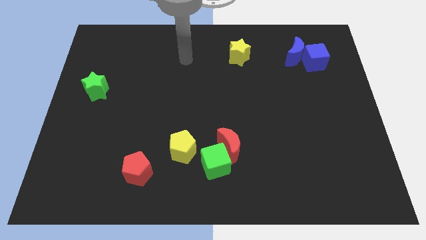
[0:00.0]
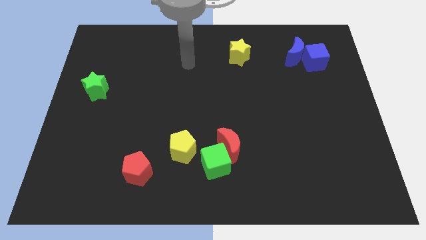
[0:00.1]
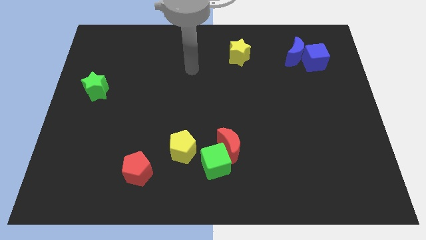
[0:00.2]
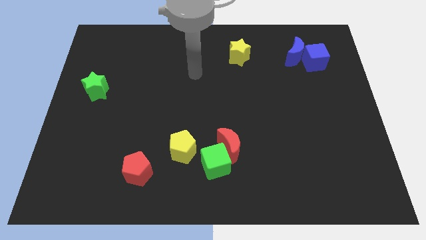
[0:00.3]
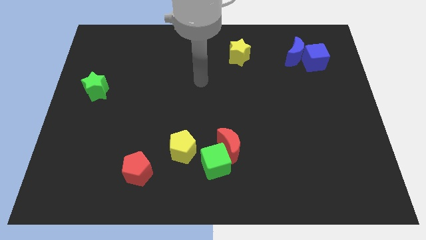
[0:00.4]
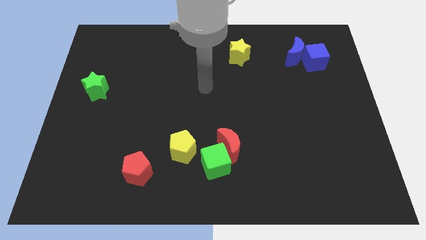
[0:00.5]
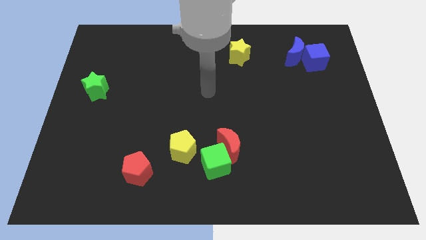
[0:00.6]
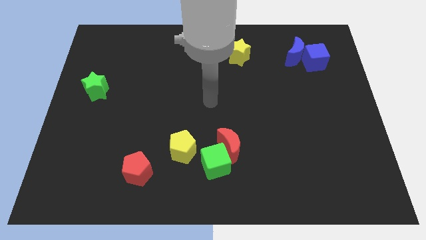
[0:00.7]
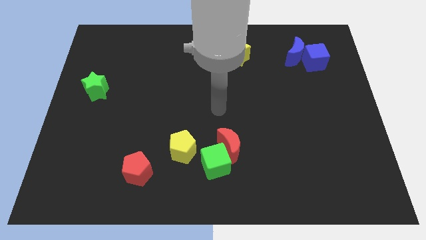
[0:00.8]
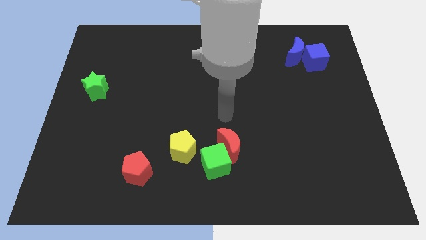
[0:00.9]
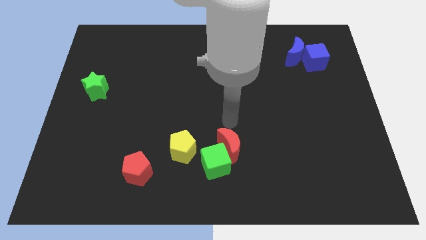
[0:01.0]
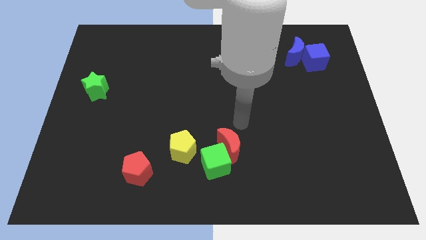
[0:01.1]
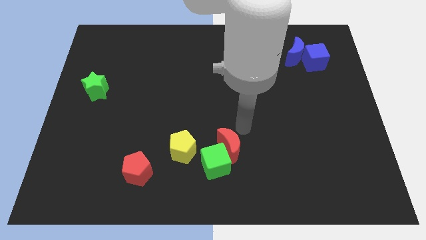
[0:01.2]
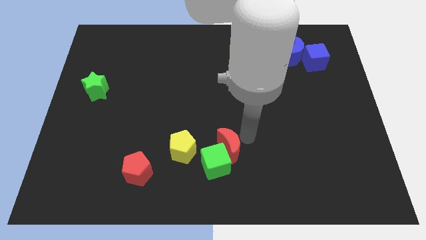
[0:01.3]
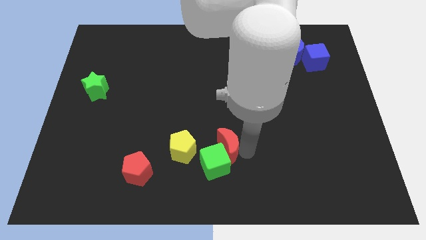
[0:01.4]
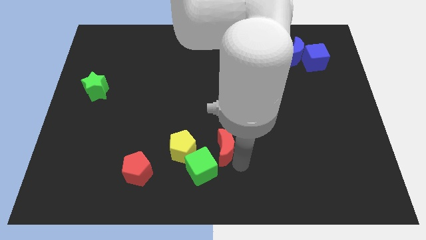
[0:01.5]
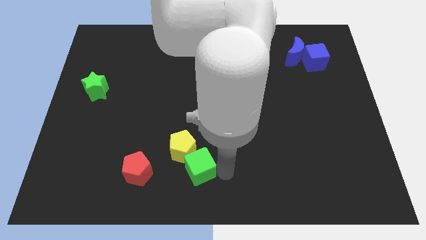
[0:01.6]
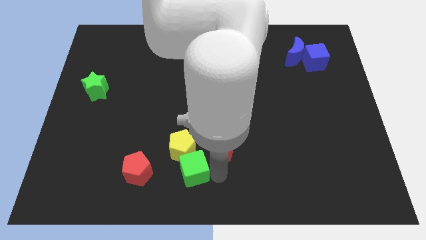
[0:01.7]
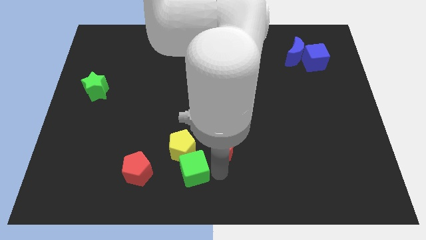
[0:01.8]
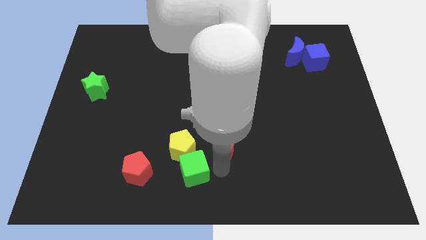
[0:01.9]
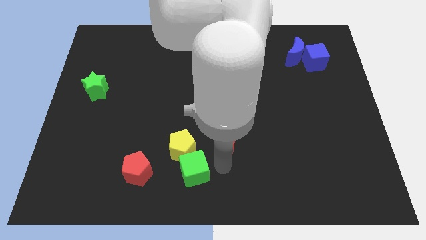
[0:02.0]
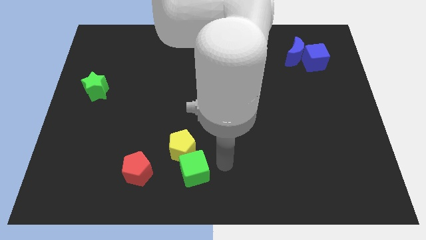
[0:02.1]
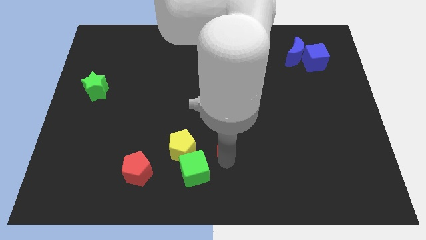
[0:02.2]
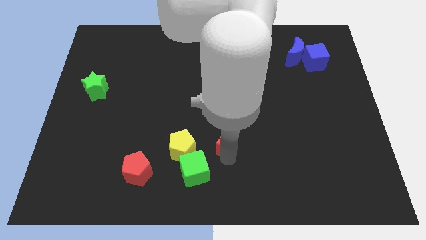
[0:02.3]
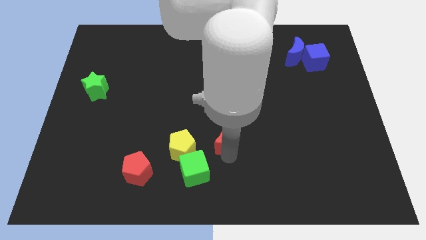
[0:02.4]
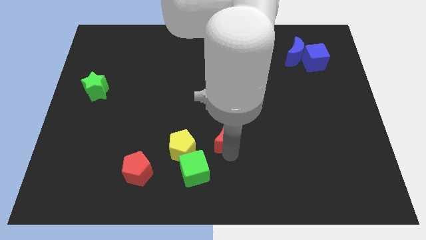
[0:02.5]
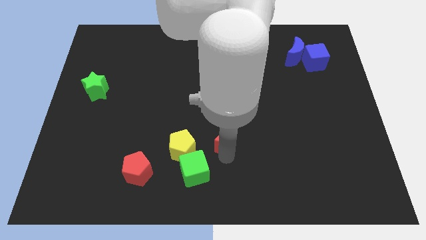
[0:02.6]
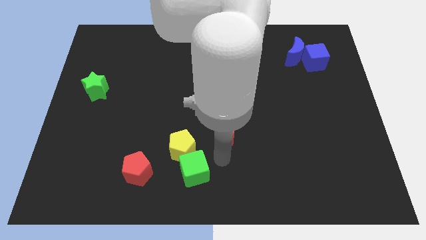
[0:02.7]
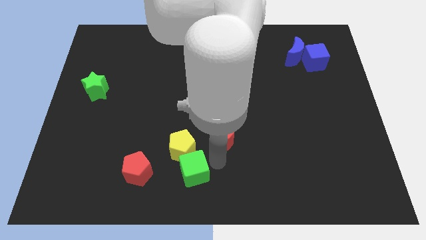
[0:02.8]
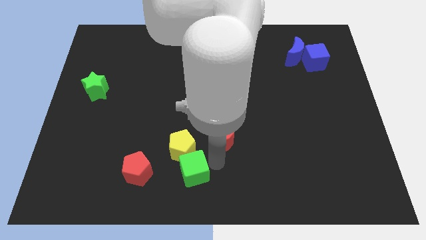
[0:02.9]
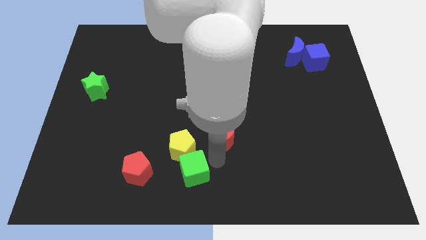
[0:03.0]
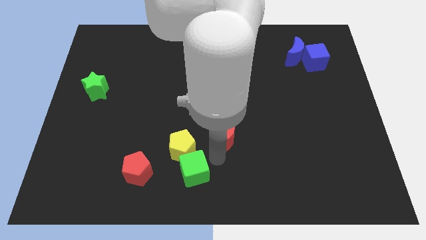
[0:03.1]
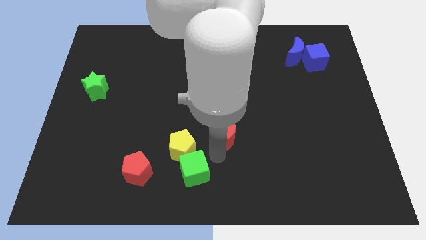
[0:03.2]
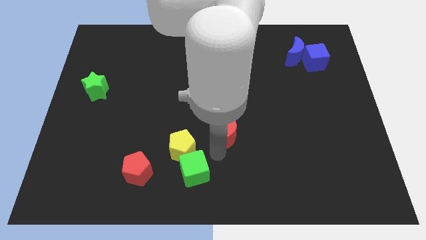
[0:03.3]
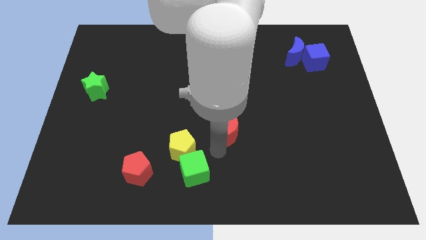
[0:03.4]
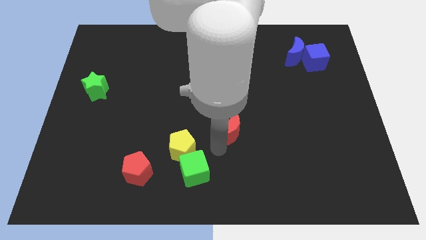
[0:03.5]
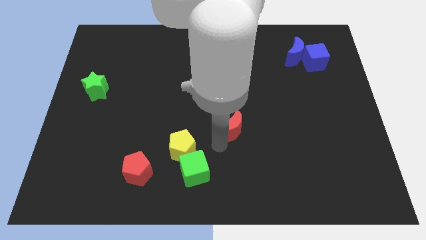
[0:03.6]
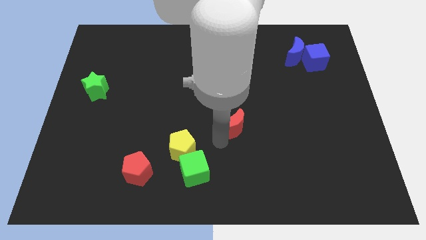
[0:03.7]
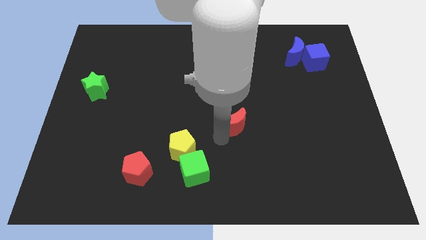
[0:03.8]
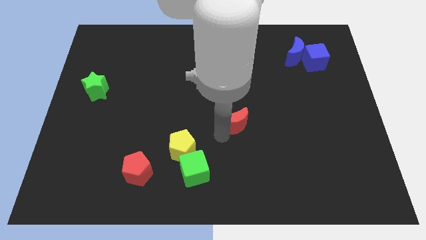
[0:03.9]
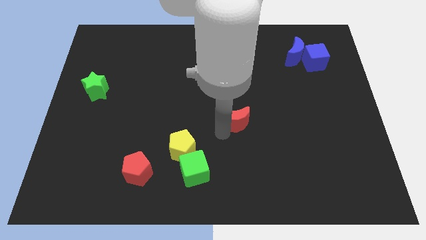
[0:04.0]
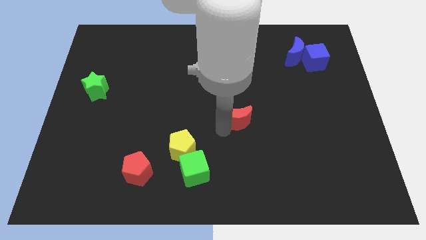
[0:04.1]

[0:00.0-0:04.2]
slightly slide the red moon upwards

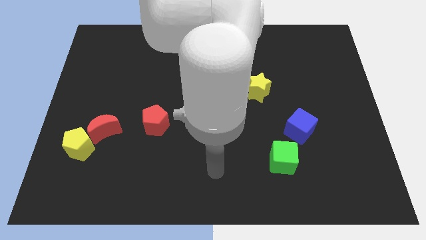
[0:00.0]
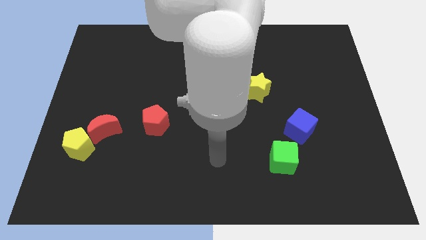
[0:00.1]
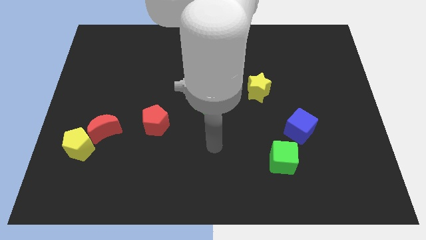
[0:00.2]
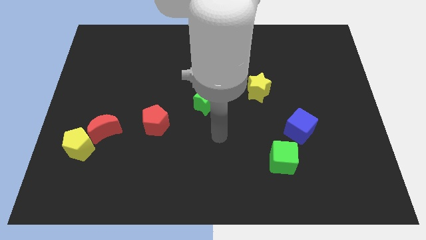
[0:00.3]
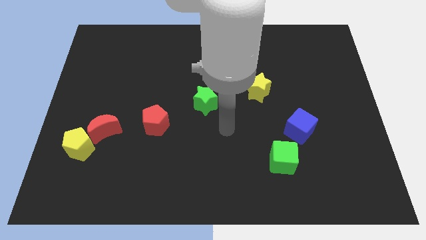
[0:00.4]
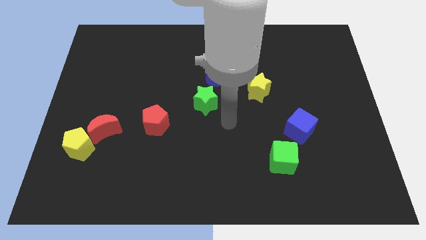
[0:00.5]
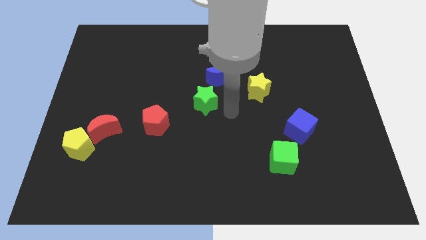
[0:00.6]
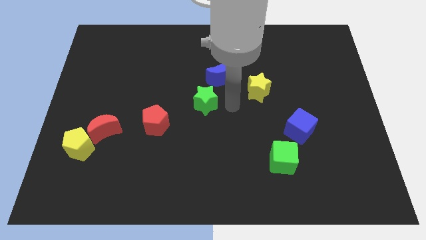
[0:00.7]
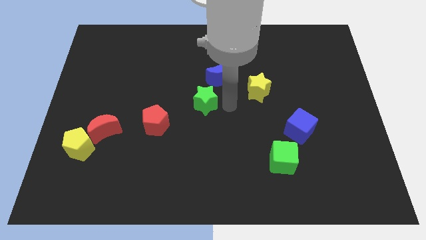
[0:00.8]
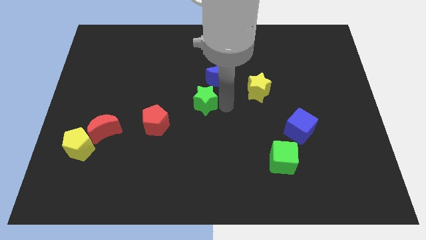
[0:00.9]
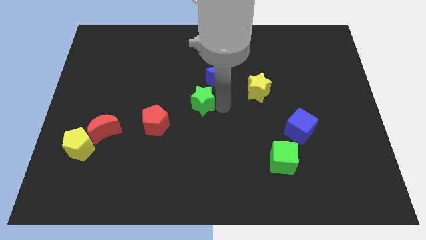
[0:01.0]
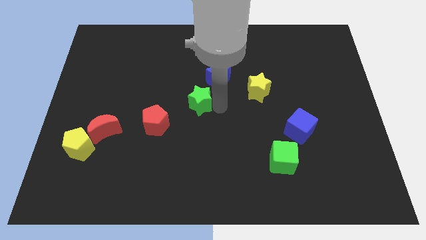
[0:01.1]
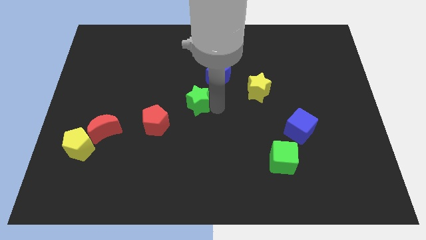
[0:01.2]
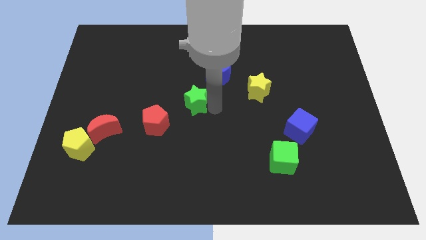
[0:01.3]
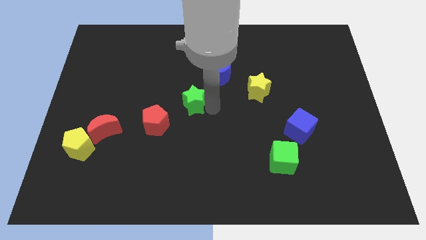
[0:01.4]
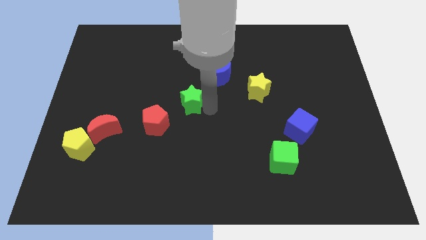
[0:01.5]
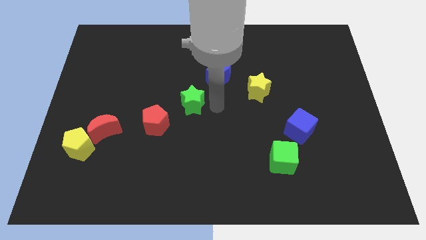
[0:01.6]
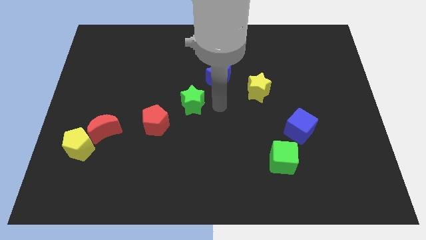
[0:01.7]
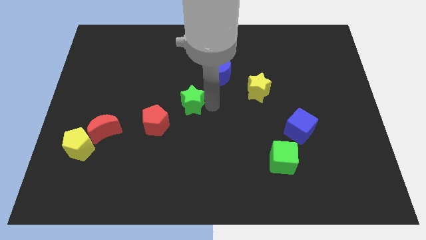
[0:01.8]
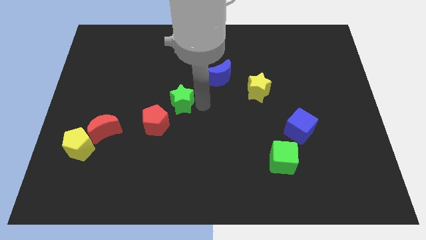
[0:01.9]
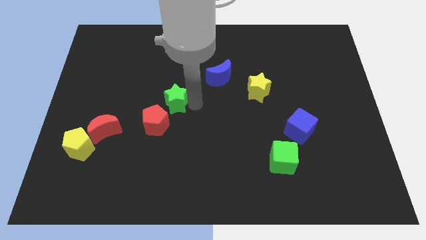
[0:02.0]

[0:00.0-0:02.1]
slightly slide the green star to the left

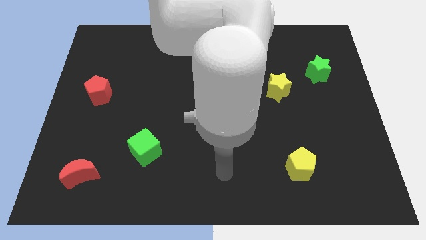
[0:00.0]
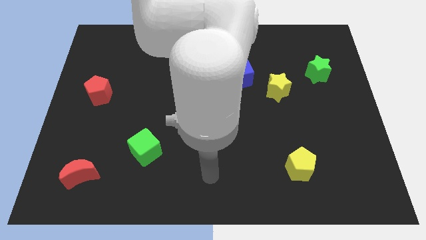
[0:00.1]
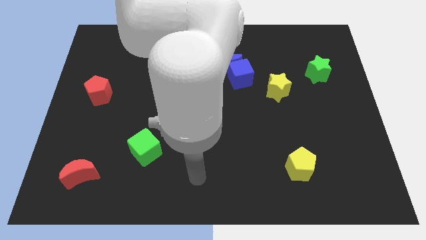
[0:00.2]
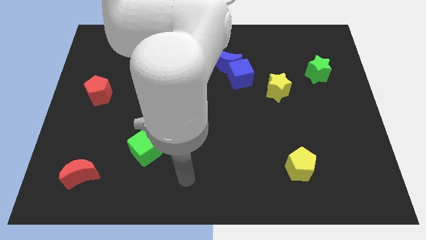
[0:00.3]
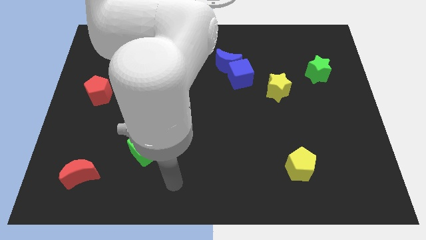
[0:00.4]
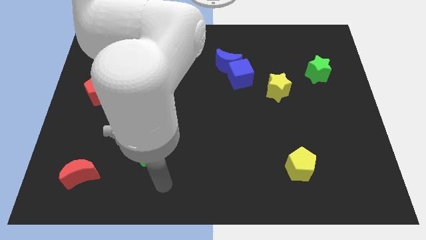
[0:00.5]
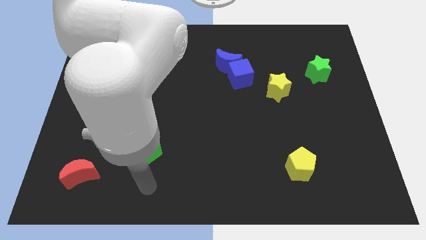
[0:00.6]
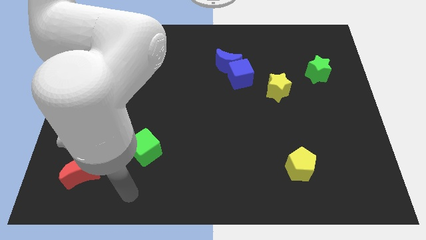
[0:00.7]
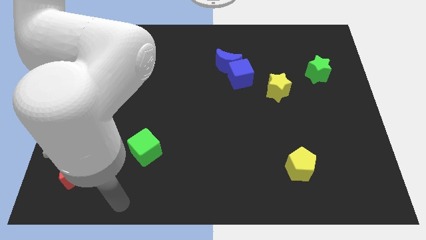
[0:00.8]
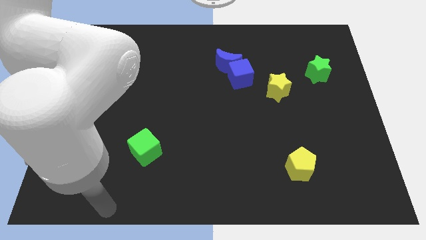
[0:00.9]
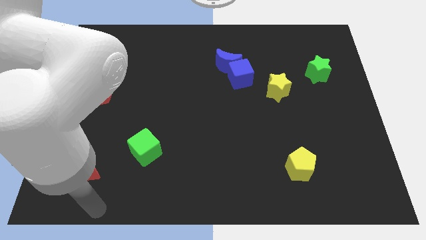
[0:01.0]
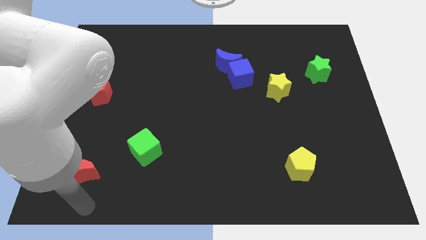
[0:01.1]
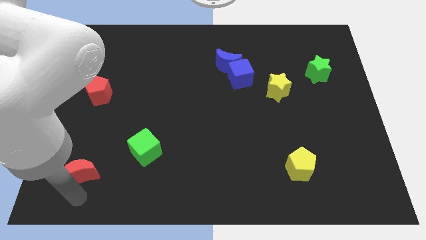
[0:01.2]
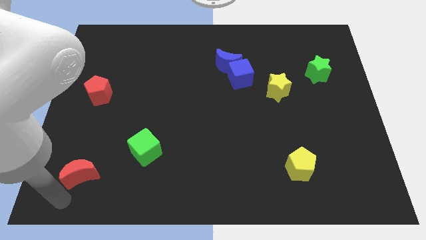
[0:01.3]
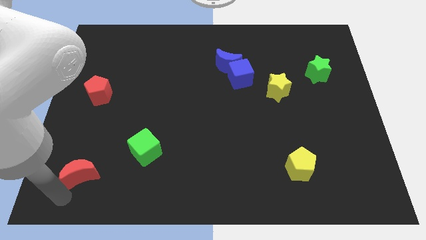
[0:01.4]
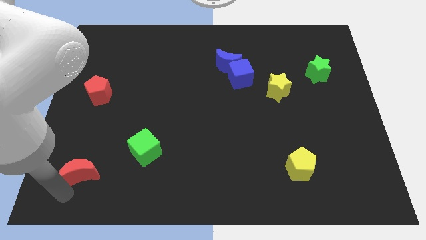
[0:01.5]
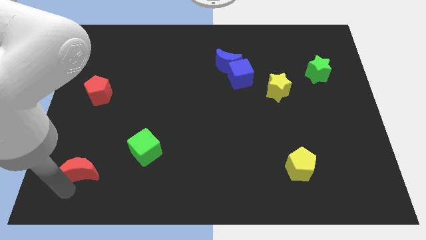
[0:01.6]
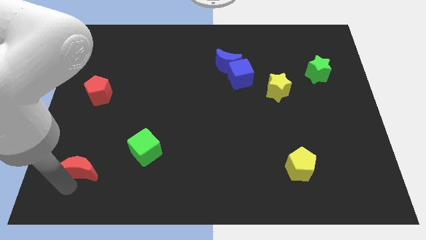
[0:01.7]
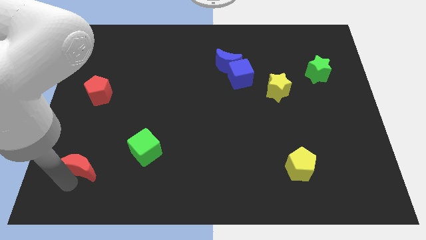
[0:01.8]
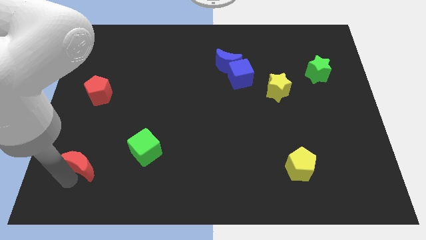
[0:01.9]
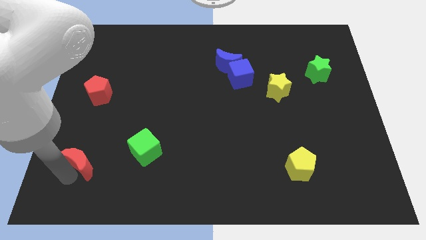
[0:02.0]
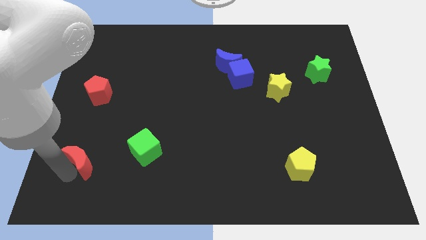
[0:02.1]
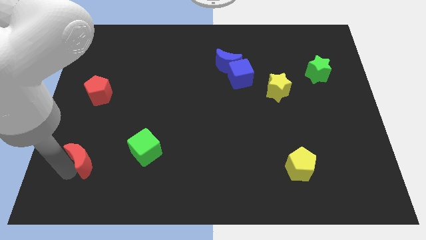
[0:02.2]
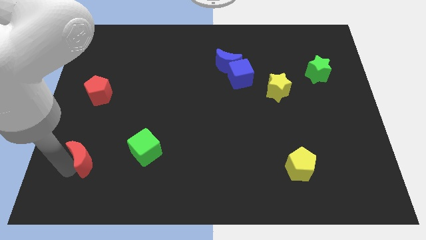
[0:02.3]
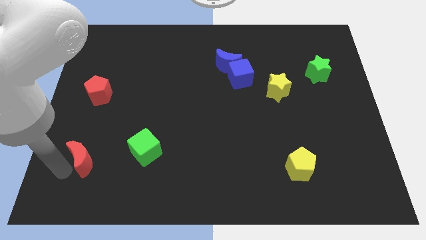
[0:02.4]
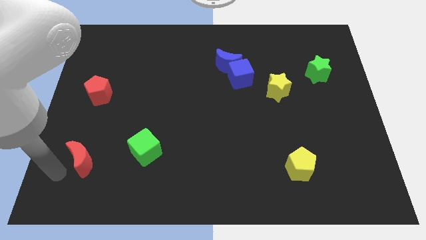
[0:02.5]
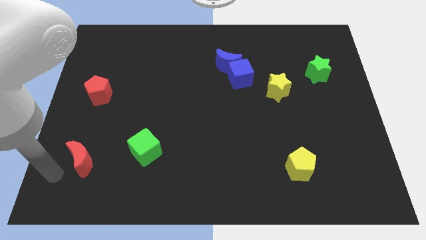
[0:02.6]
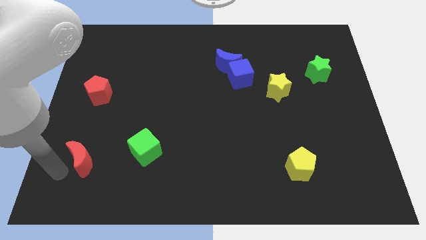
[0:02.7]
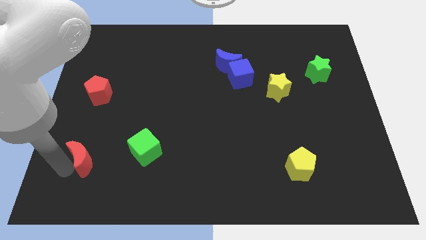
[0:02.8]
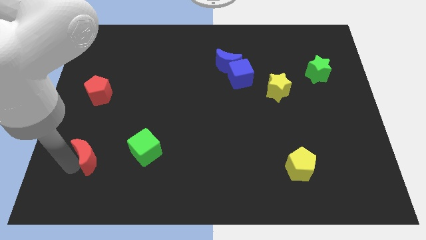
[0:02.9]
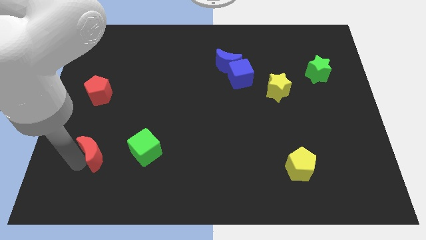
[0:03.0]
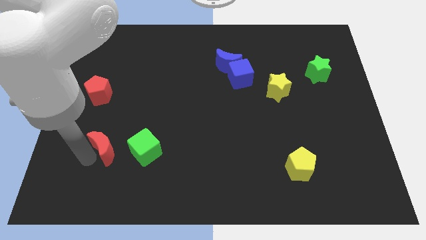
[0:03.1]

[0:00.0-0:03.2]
slide the red moon a little diagonally upwards and to the right
